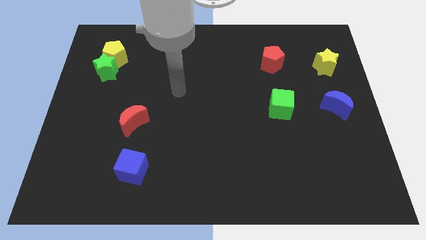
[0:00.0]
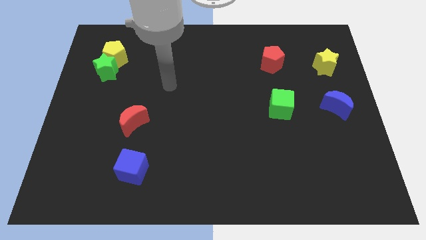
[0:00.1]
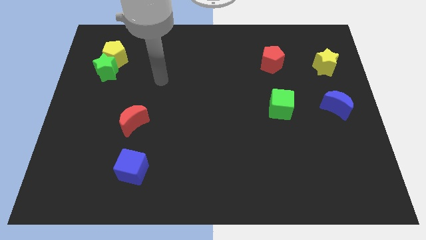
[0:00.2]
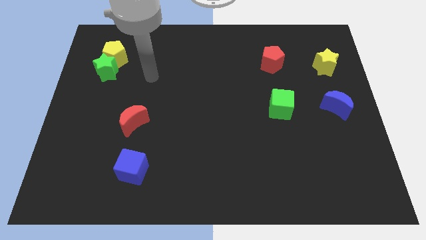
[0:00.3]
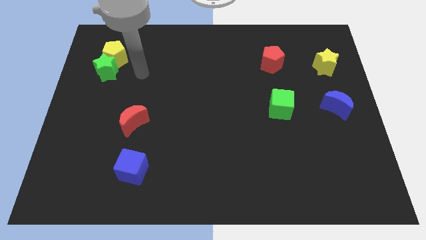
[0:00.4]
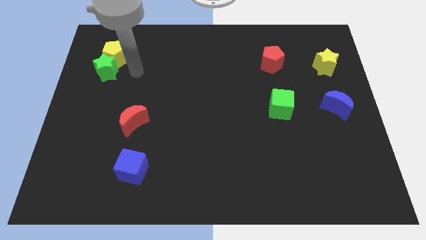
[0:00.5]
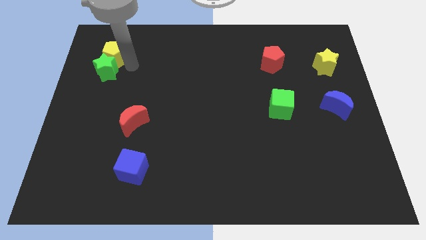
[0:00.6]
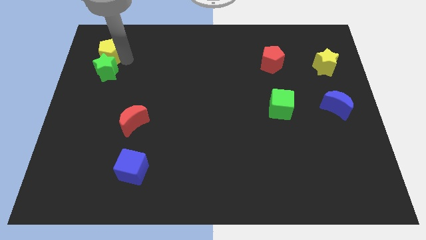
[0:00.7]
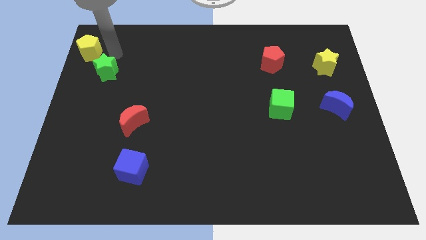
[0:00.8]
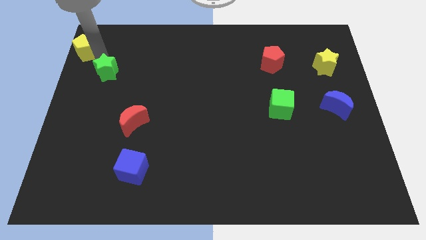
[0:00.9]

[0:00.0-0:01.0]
move the green star away from the yellow pentagon

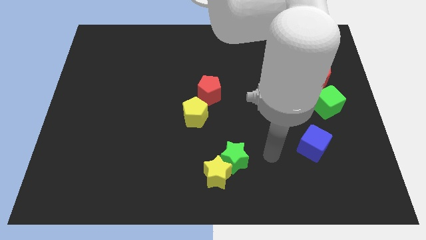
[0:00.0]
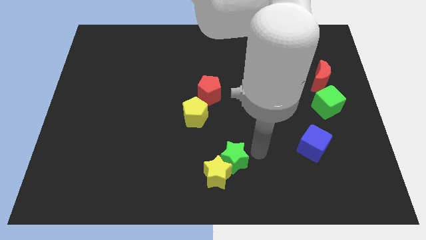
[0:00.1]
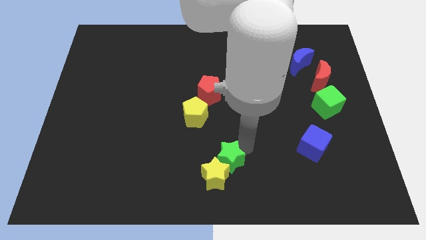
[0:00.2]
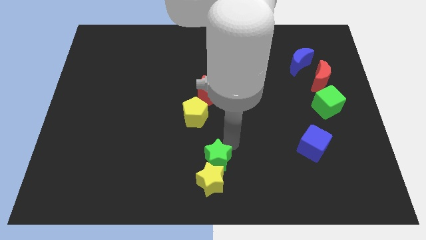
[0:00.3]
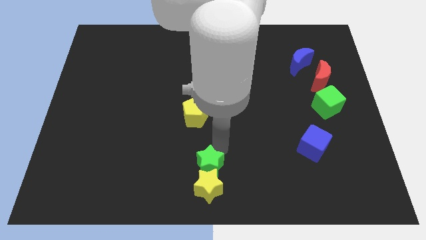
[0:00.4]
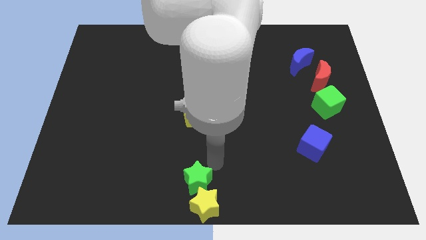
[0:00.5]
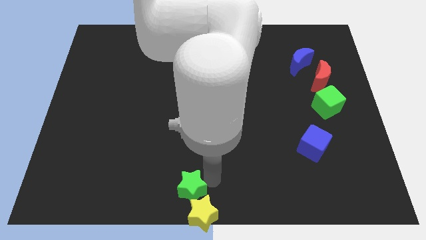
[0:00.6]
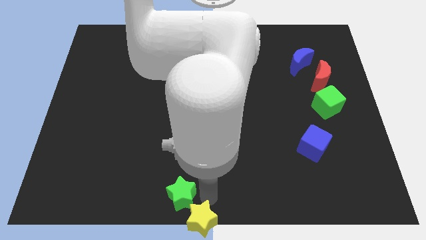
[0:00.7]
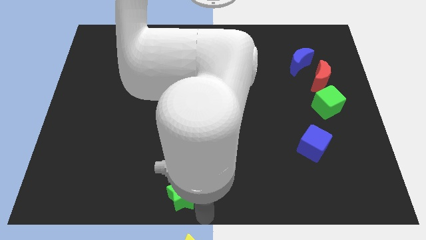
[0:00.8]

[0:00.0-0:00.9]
move the green star away from the yellow star

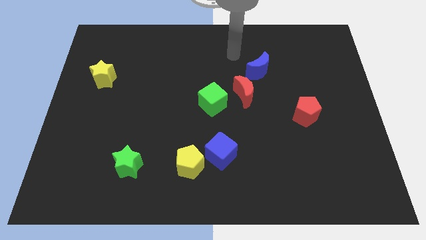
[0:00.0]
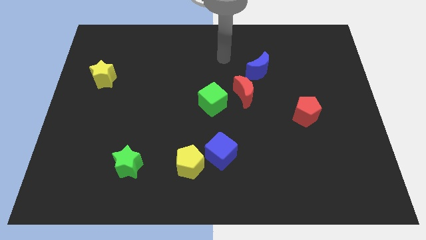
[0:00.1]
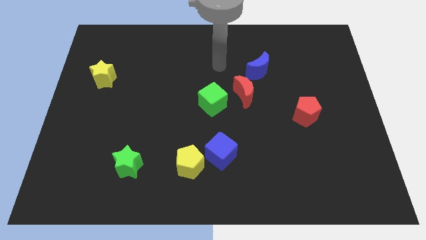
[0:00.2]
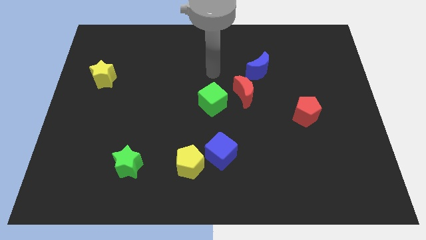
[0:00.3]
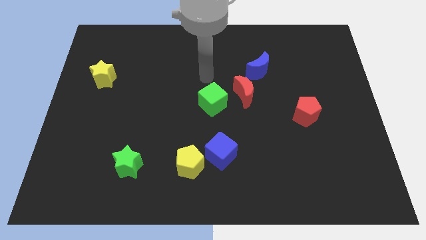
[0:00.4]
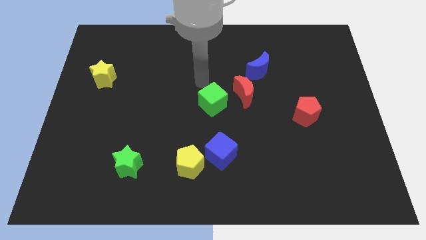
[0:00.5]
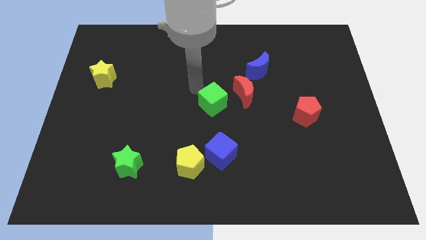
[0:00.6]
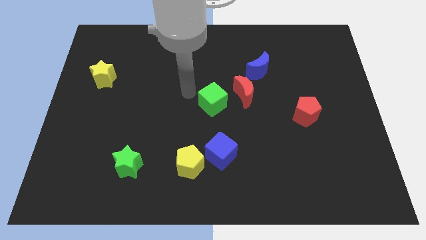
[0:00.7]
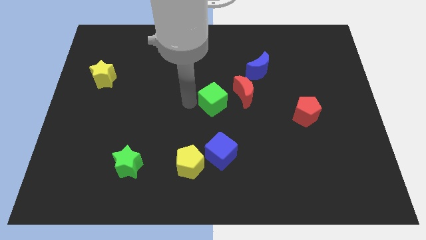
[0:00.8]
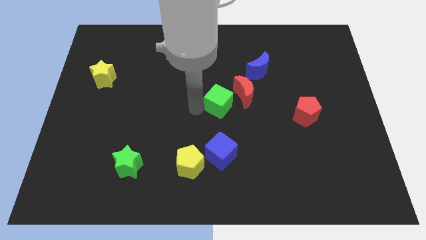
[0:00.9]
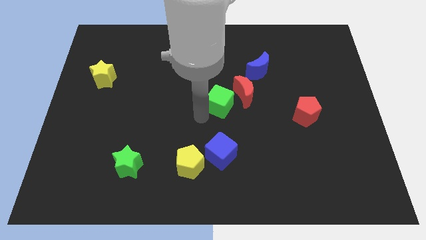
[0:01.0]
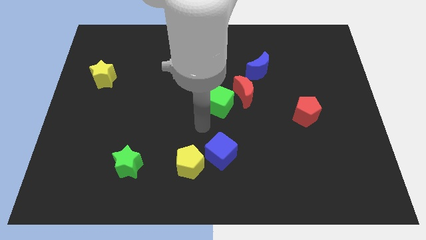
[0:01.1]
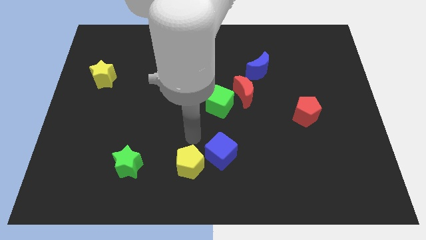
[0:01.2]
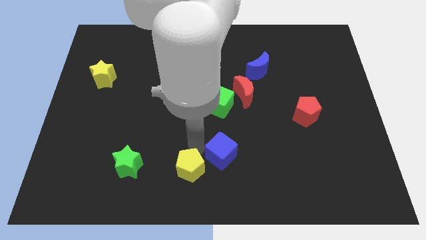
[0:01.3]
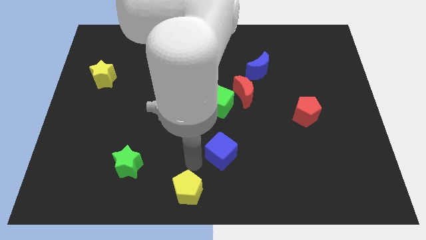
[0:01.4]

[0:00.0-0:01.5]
separate the blue cube from the yellow pentagon

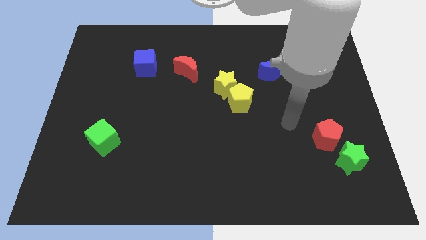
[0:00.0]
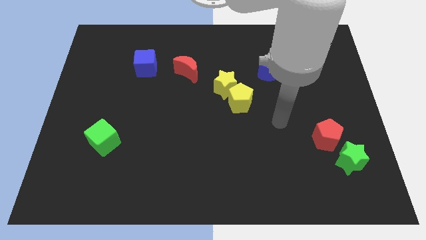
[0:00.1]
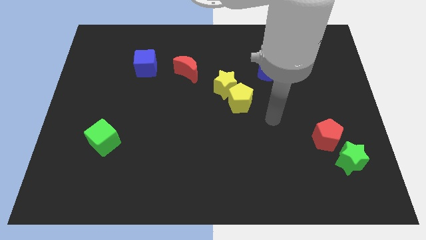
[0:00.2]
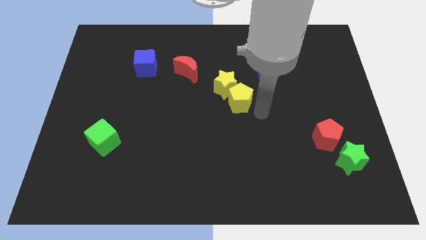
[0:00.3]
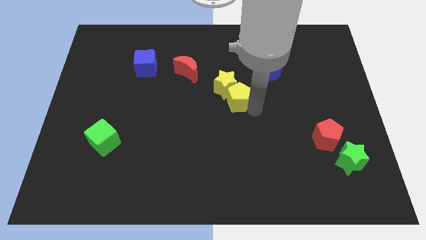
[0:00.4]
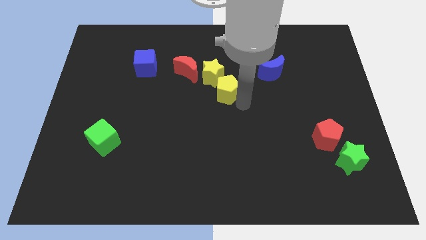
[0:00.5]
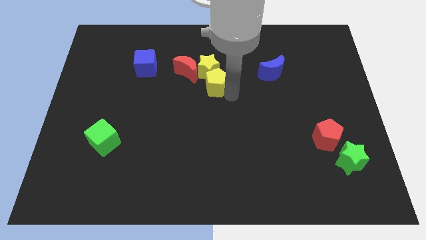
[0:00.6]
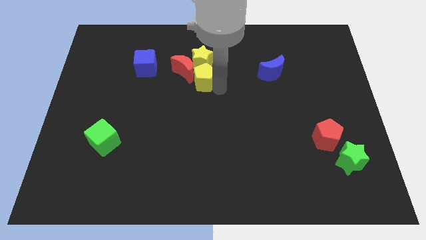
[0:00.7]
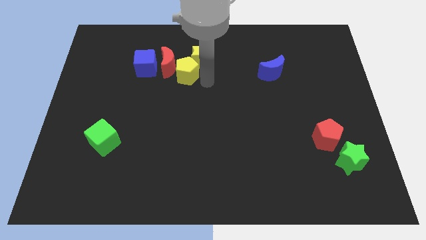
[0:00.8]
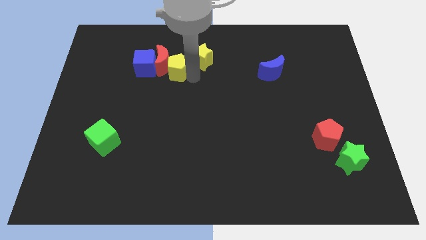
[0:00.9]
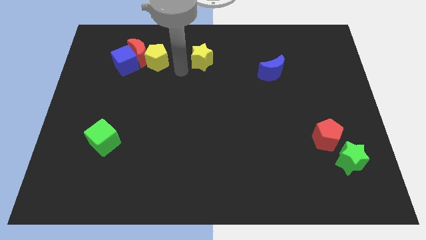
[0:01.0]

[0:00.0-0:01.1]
move the yellow star away from the yellow pentagon

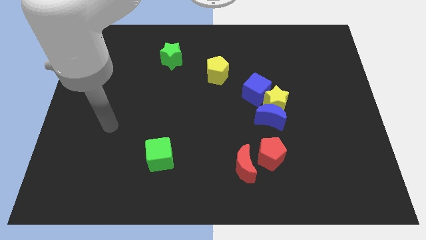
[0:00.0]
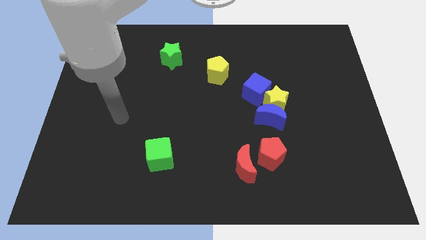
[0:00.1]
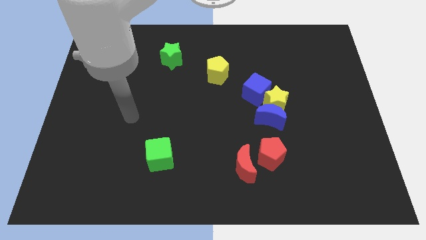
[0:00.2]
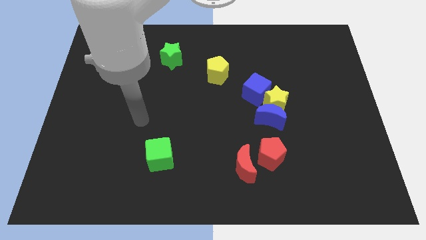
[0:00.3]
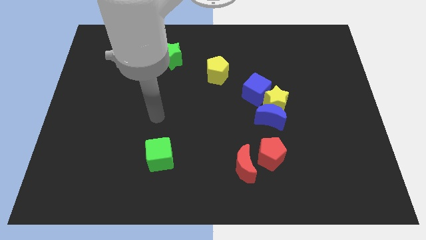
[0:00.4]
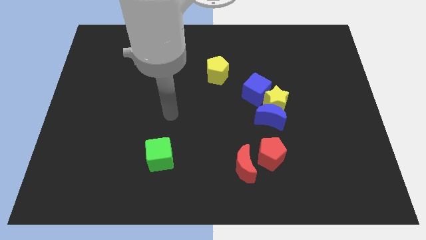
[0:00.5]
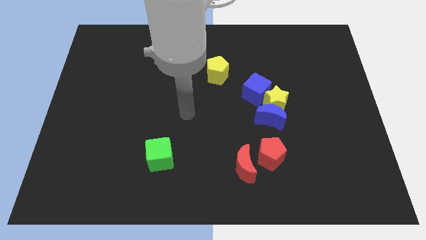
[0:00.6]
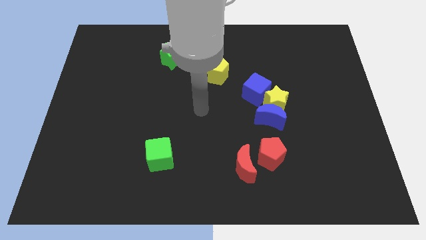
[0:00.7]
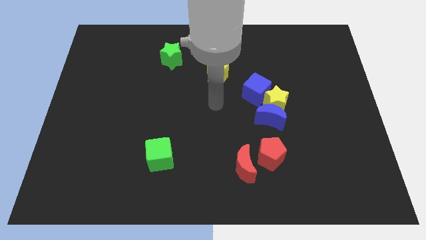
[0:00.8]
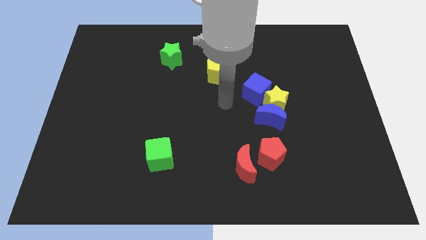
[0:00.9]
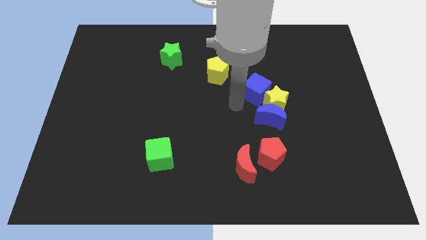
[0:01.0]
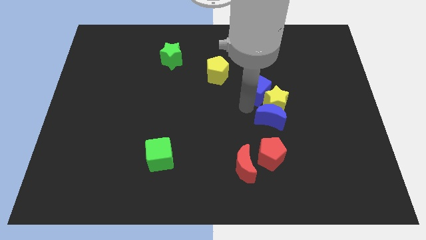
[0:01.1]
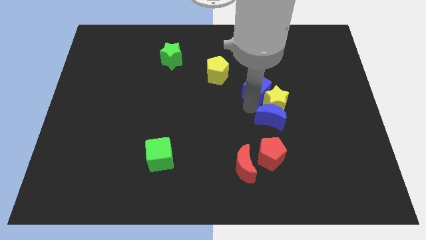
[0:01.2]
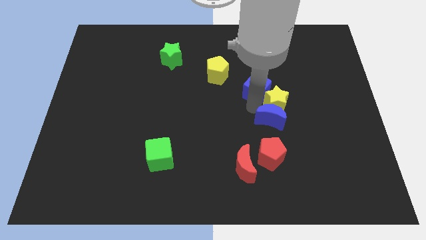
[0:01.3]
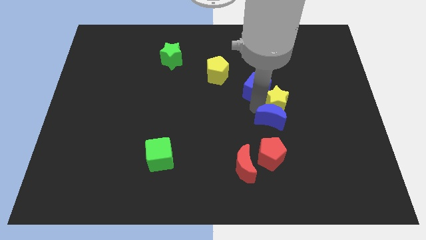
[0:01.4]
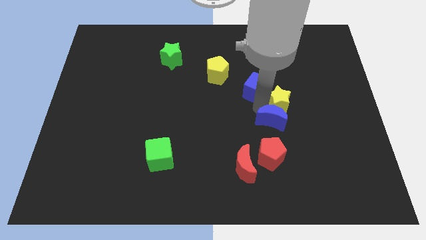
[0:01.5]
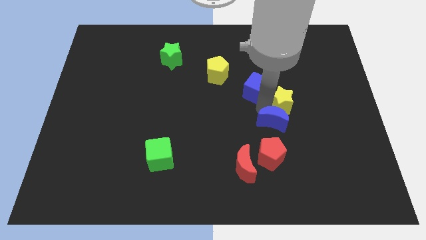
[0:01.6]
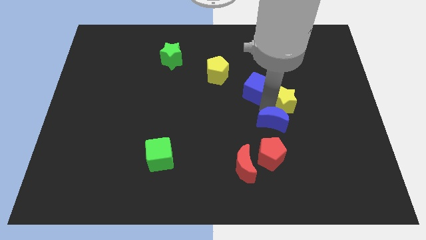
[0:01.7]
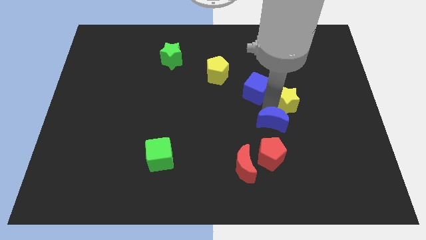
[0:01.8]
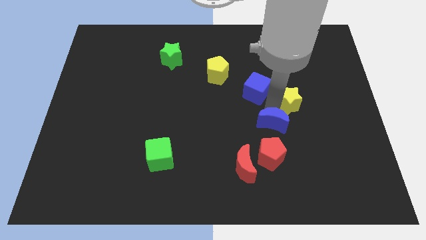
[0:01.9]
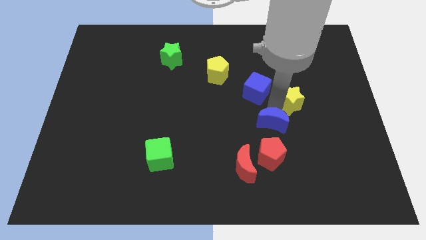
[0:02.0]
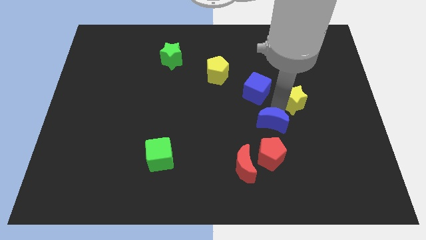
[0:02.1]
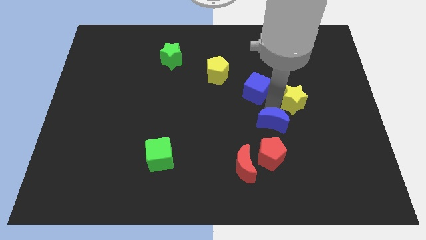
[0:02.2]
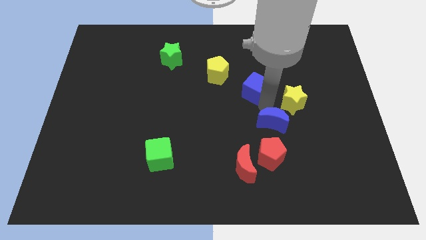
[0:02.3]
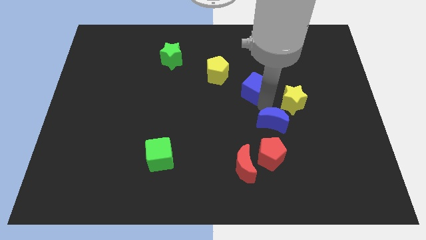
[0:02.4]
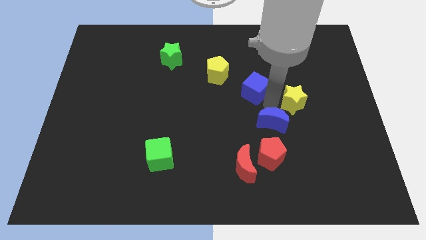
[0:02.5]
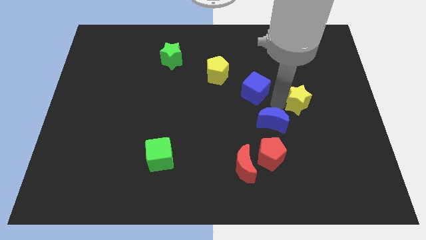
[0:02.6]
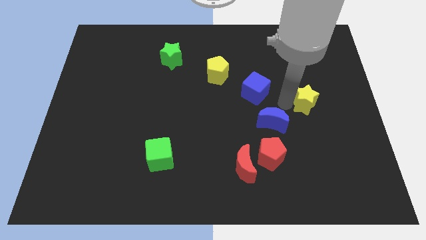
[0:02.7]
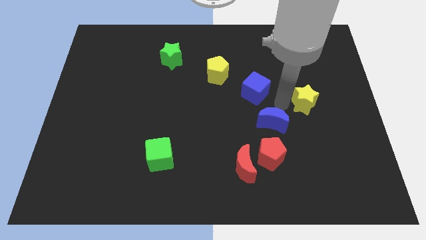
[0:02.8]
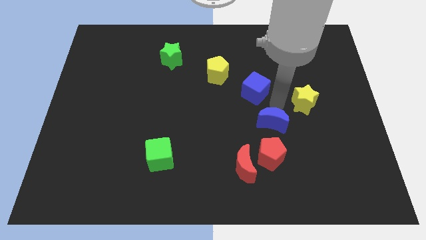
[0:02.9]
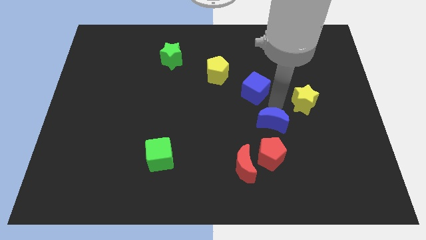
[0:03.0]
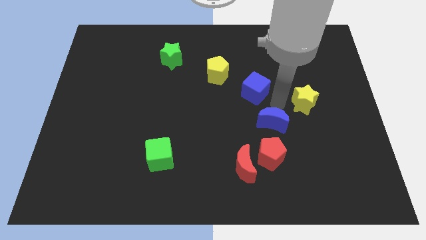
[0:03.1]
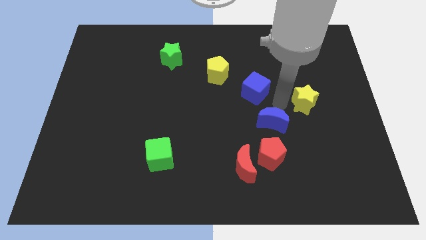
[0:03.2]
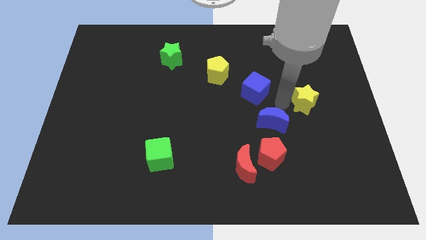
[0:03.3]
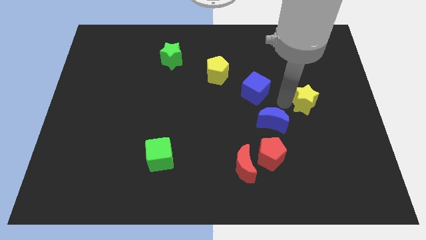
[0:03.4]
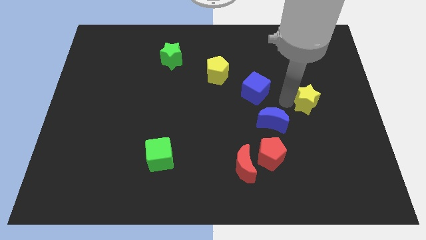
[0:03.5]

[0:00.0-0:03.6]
pull the yellow star apart from the blue moon and blue cube

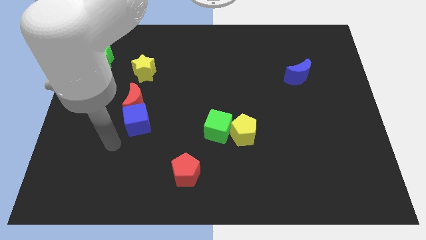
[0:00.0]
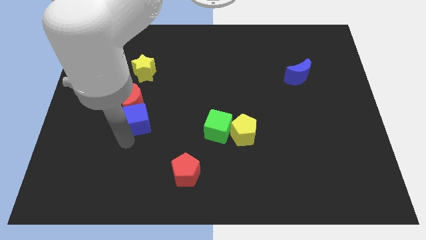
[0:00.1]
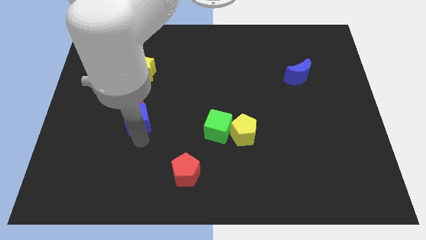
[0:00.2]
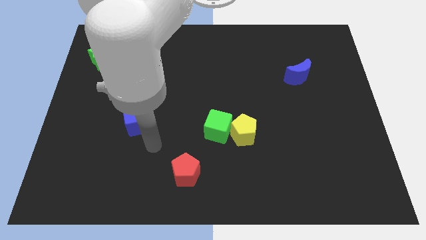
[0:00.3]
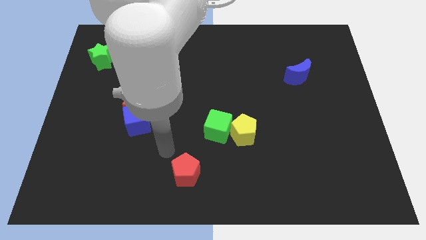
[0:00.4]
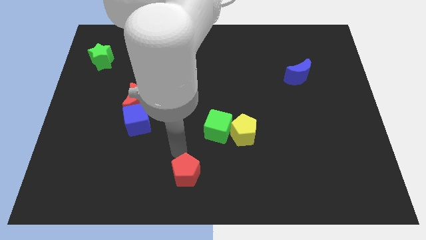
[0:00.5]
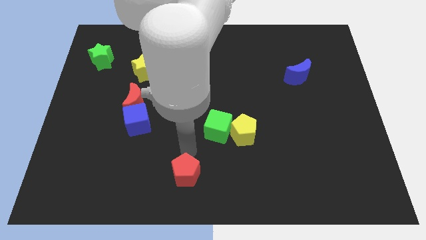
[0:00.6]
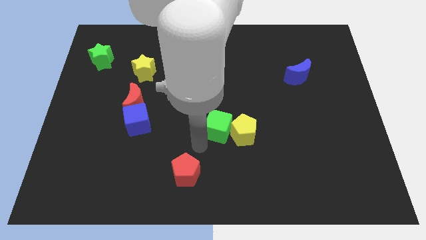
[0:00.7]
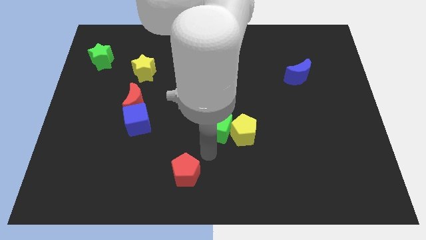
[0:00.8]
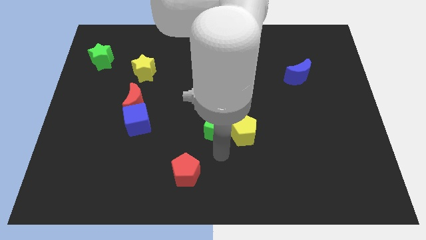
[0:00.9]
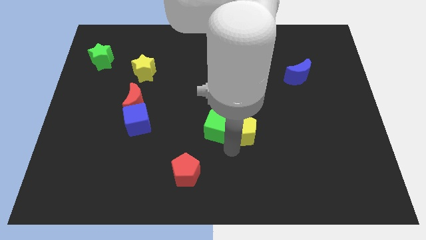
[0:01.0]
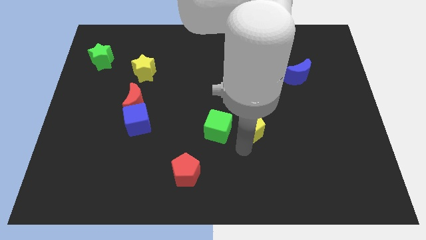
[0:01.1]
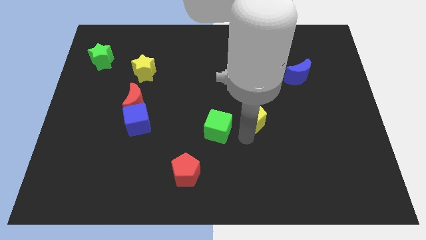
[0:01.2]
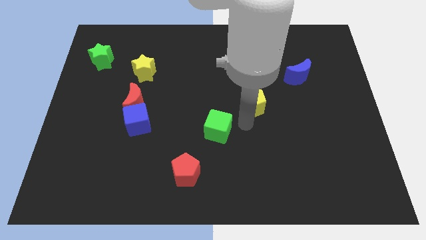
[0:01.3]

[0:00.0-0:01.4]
pull the green cube apart from the yellow pentagon
